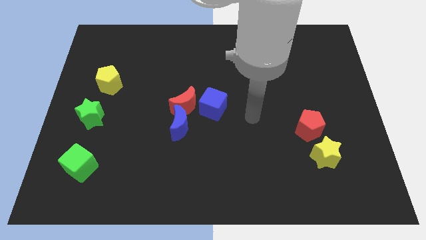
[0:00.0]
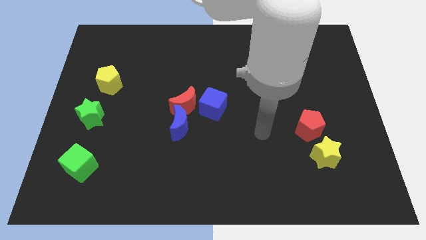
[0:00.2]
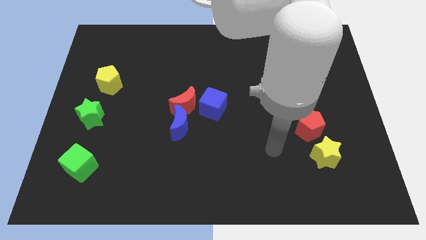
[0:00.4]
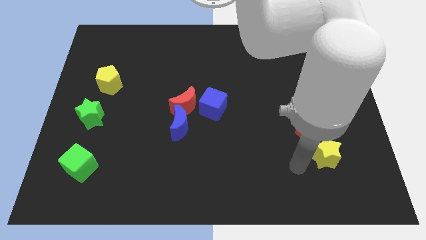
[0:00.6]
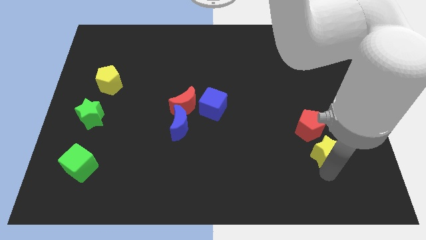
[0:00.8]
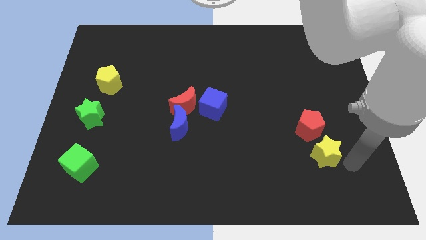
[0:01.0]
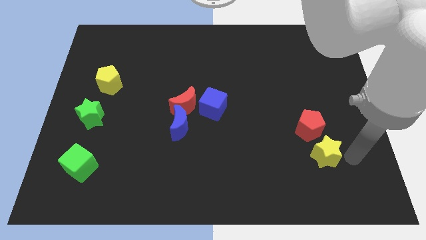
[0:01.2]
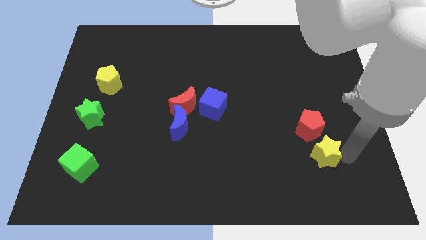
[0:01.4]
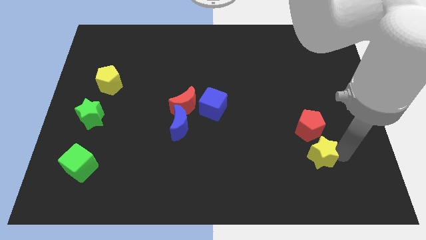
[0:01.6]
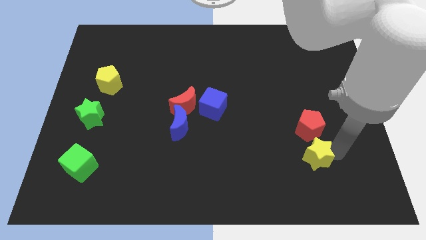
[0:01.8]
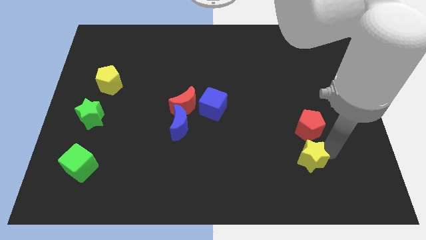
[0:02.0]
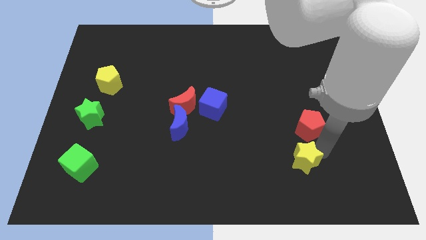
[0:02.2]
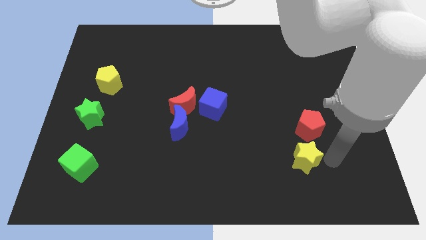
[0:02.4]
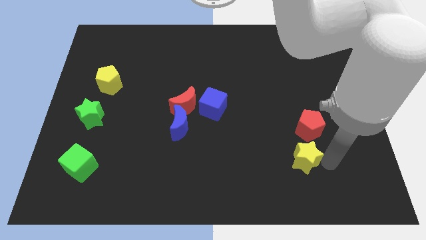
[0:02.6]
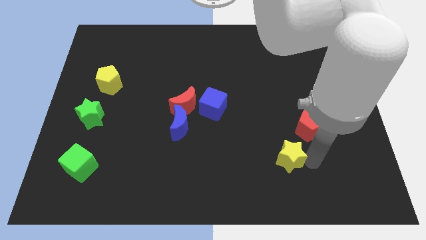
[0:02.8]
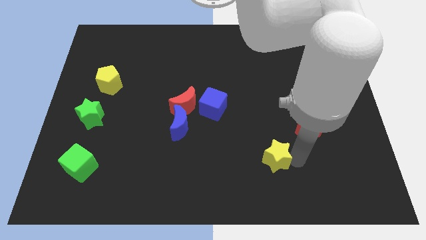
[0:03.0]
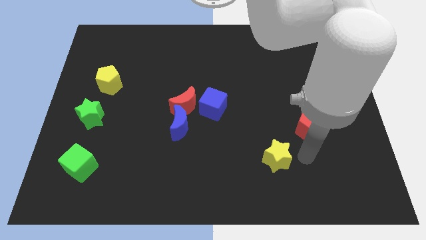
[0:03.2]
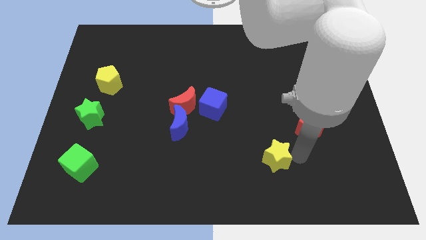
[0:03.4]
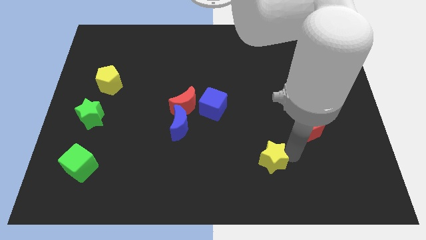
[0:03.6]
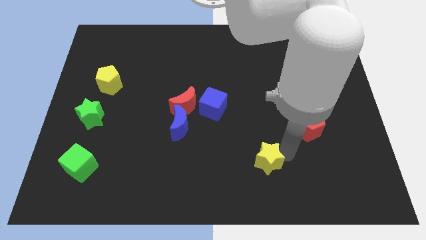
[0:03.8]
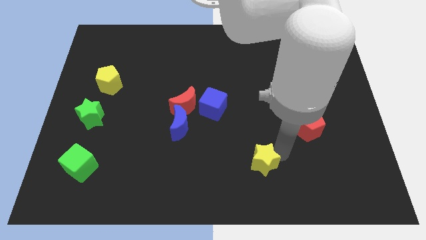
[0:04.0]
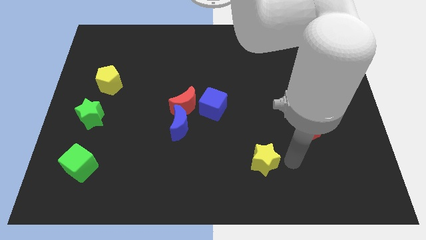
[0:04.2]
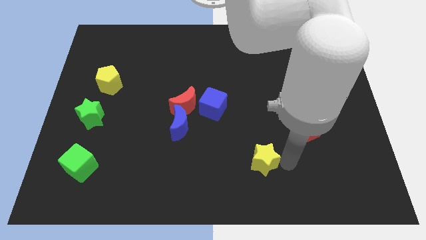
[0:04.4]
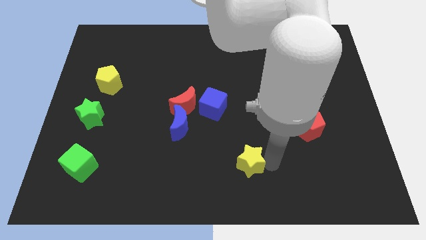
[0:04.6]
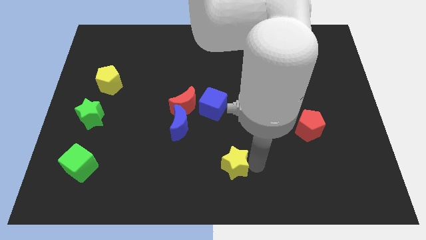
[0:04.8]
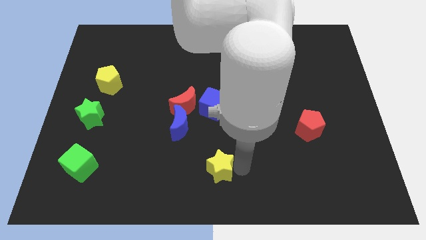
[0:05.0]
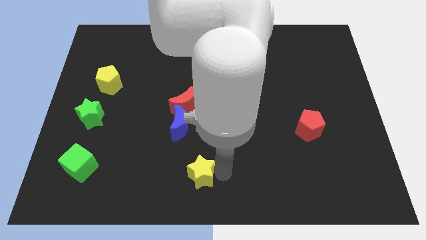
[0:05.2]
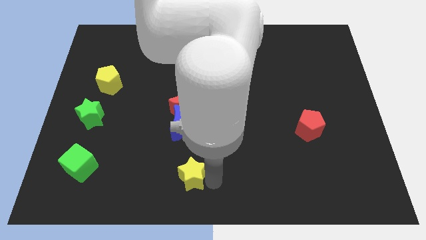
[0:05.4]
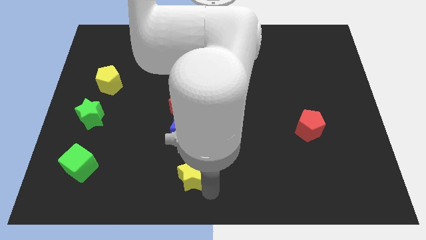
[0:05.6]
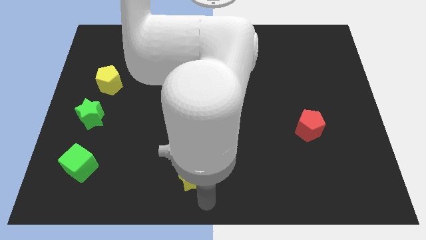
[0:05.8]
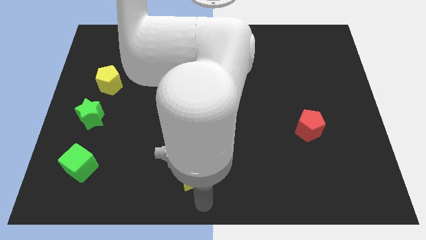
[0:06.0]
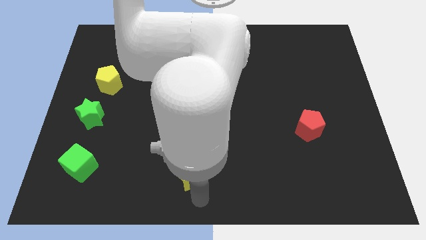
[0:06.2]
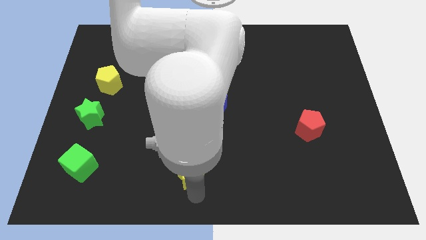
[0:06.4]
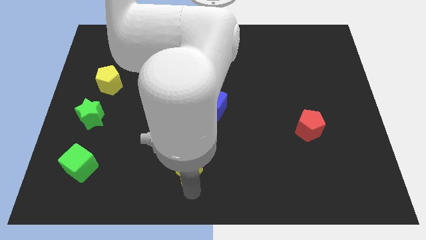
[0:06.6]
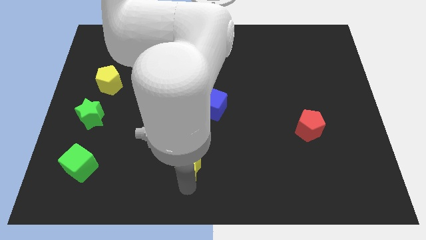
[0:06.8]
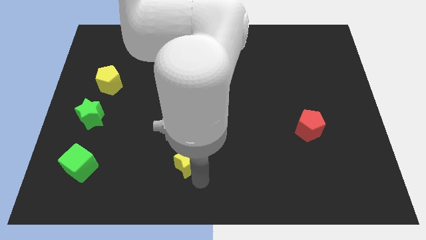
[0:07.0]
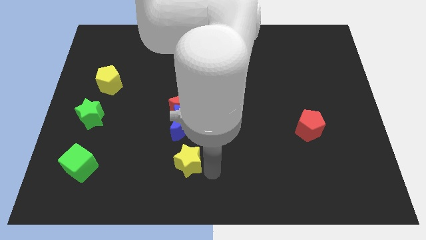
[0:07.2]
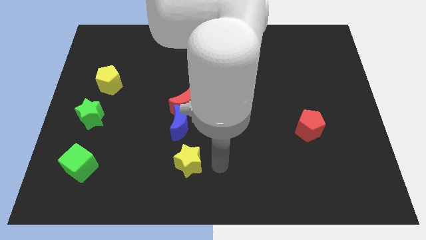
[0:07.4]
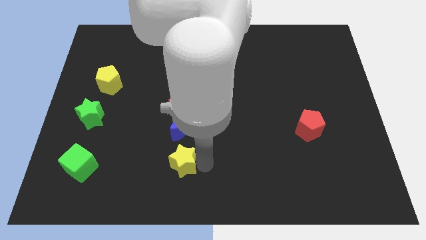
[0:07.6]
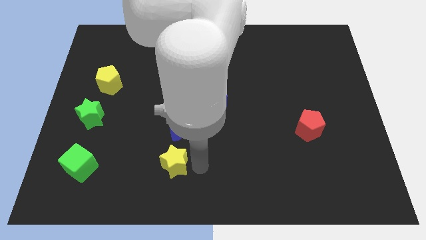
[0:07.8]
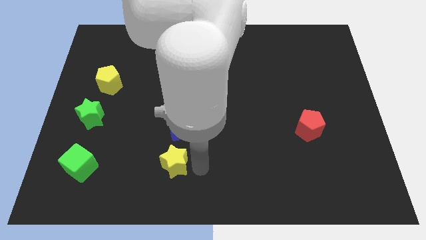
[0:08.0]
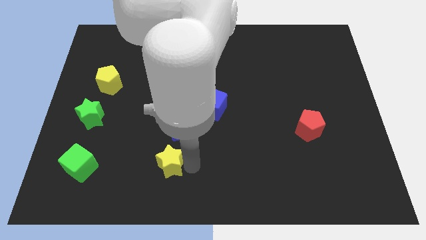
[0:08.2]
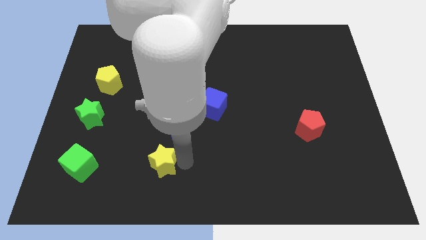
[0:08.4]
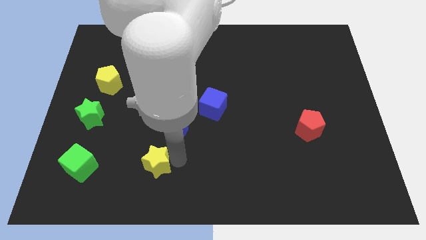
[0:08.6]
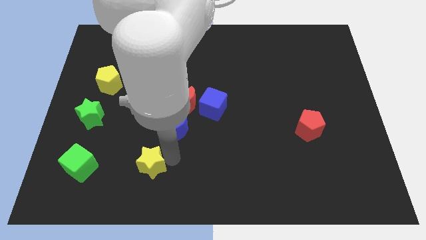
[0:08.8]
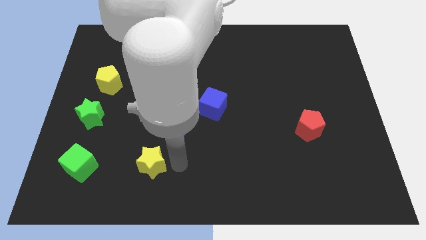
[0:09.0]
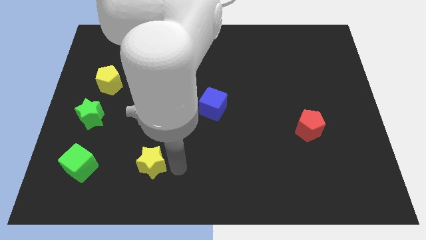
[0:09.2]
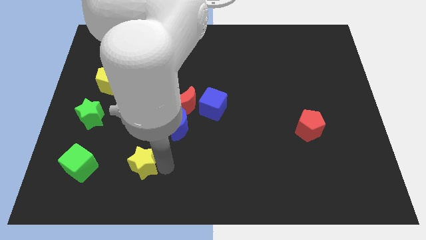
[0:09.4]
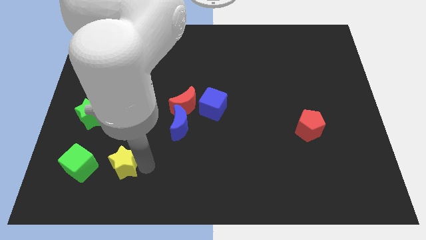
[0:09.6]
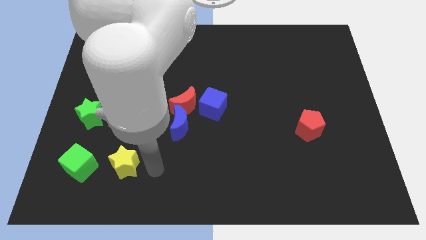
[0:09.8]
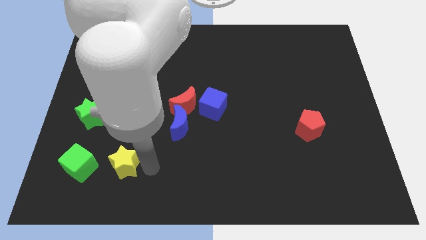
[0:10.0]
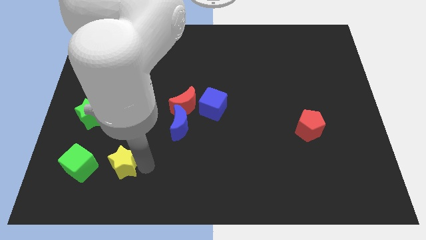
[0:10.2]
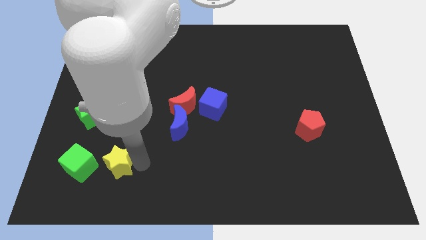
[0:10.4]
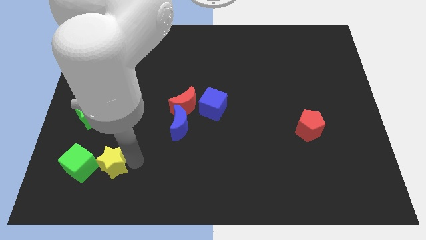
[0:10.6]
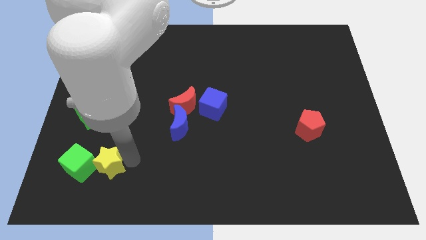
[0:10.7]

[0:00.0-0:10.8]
move the yellow star next to the green cube

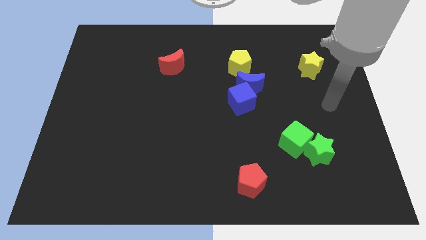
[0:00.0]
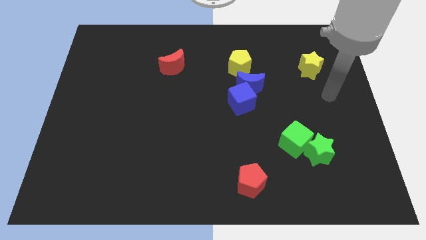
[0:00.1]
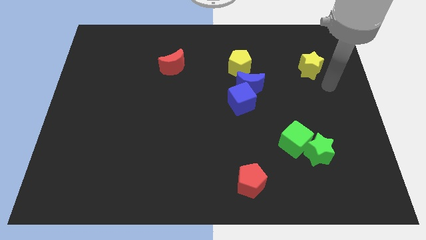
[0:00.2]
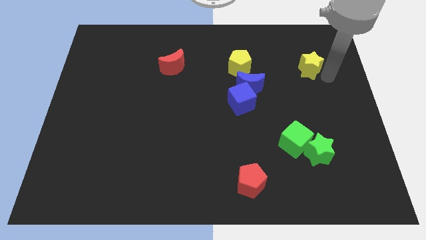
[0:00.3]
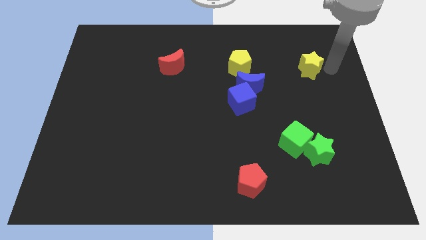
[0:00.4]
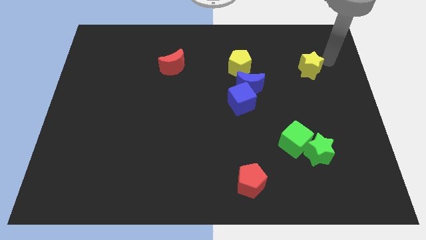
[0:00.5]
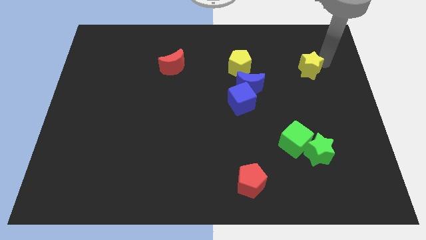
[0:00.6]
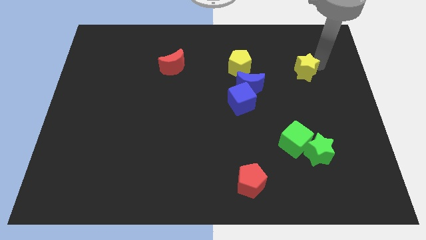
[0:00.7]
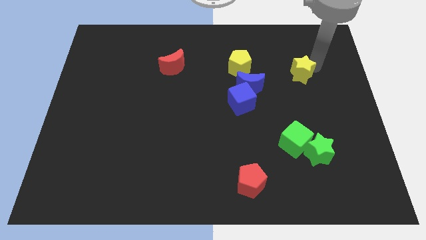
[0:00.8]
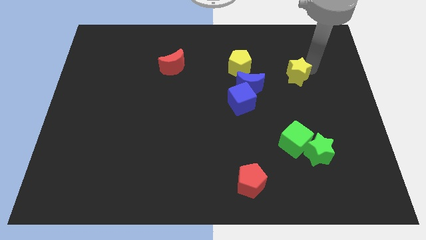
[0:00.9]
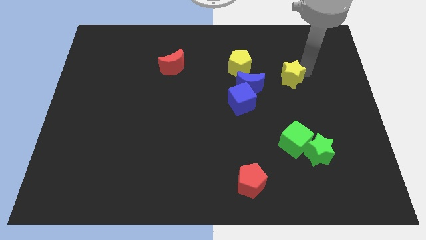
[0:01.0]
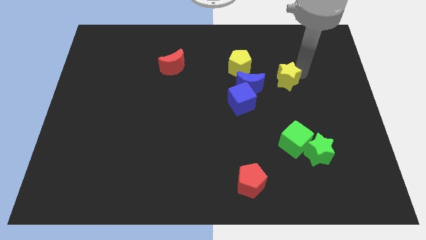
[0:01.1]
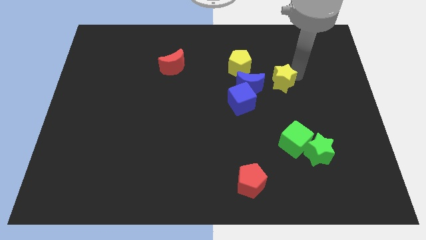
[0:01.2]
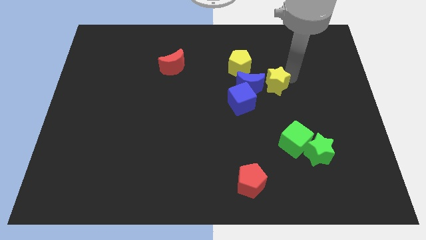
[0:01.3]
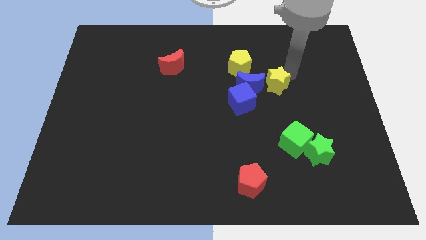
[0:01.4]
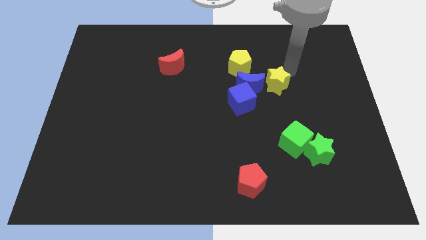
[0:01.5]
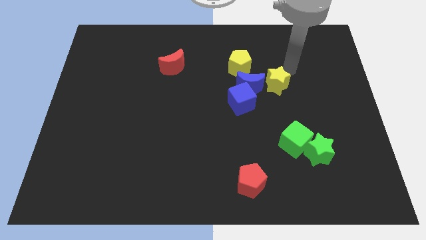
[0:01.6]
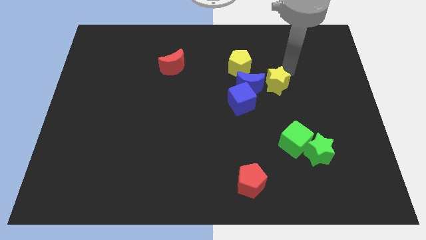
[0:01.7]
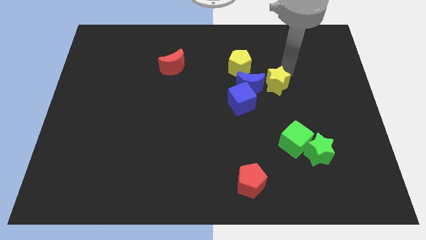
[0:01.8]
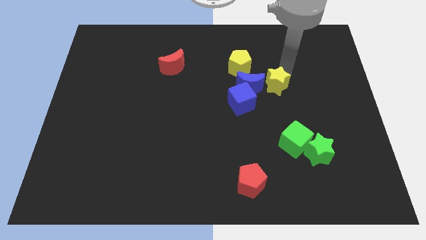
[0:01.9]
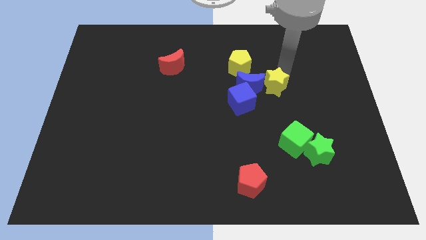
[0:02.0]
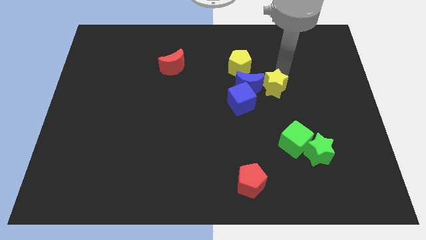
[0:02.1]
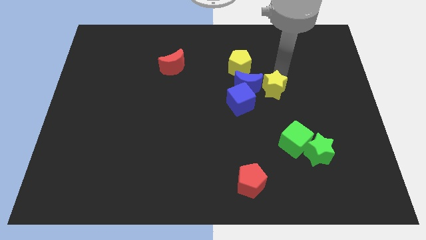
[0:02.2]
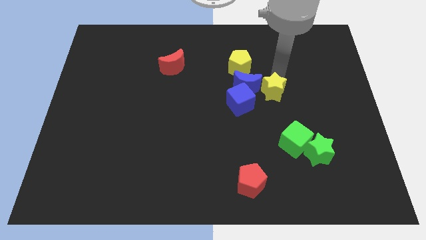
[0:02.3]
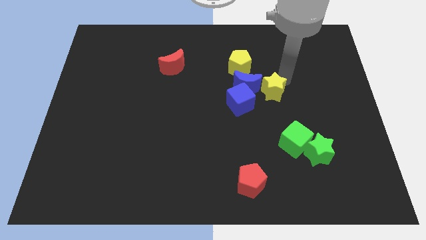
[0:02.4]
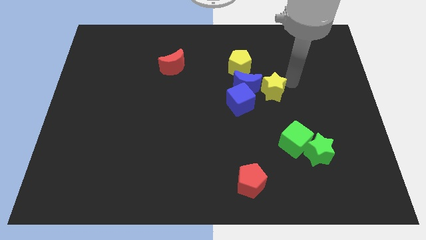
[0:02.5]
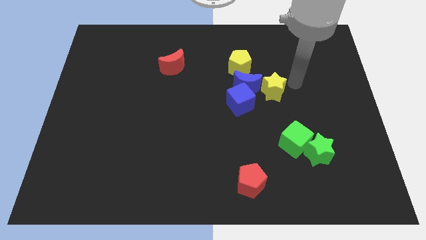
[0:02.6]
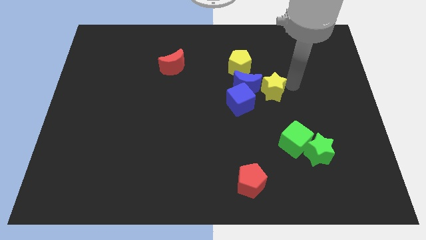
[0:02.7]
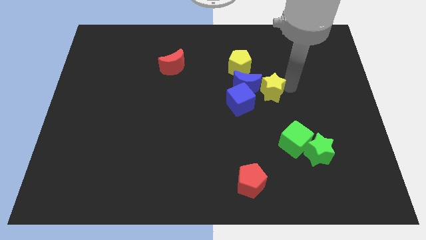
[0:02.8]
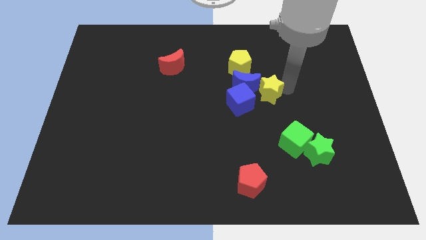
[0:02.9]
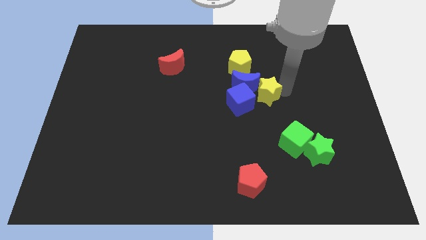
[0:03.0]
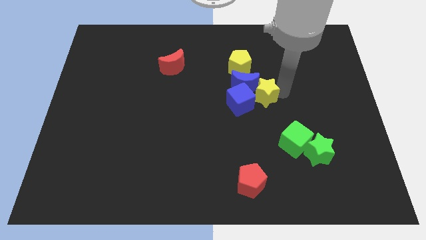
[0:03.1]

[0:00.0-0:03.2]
slide the yellow star close to the blue cube
